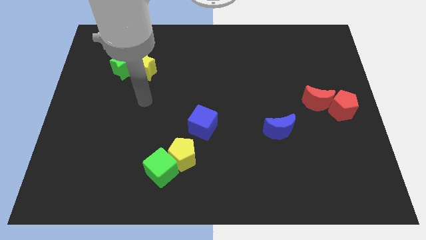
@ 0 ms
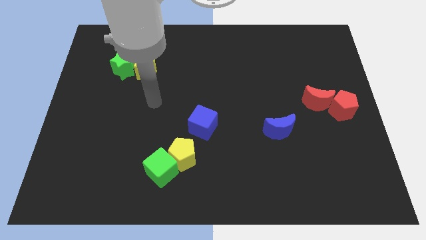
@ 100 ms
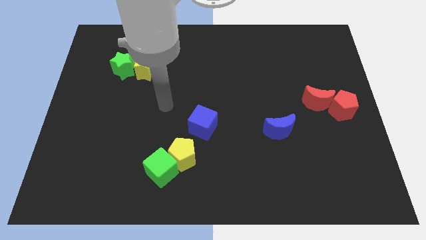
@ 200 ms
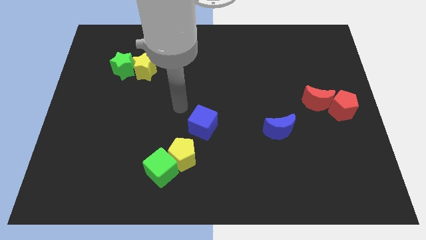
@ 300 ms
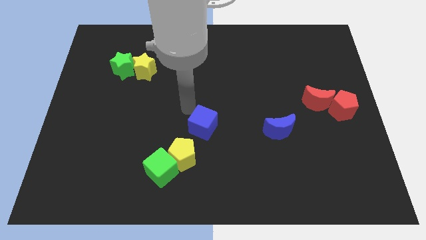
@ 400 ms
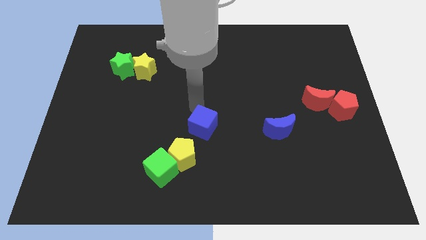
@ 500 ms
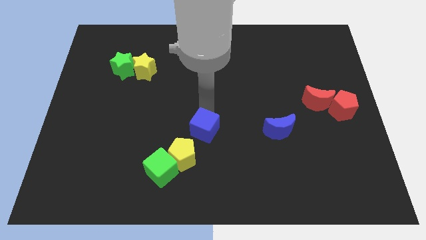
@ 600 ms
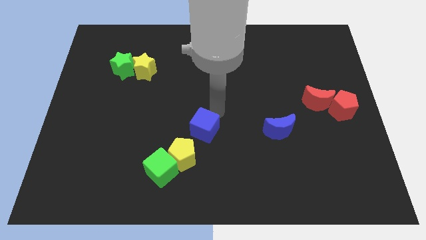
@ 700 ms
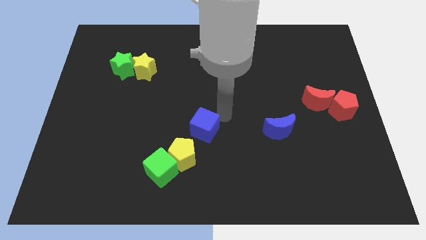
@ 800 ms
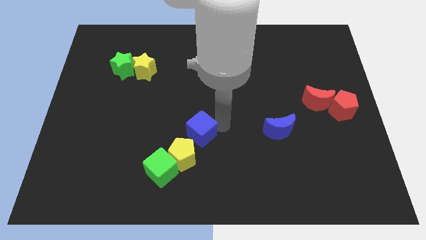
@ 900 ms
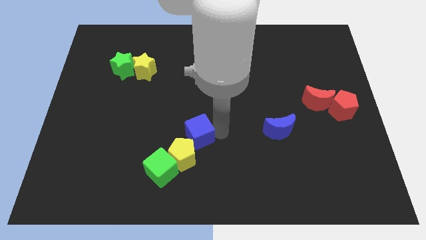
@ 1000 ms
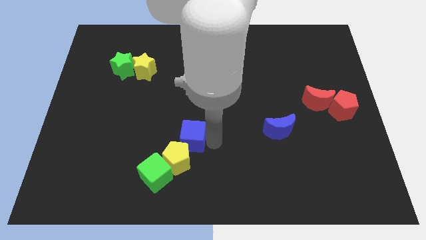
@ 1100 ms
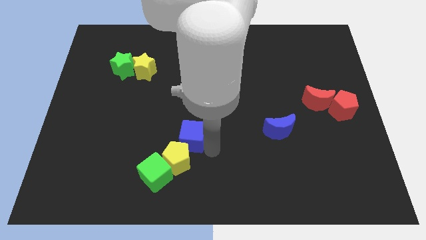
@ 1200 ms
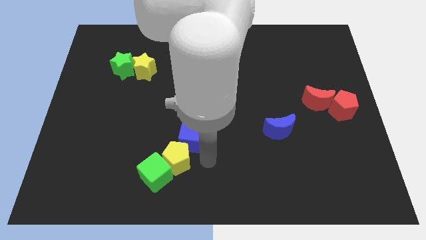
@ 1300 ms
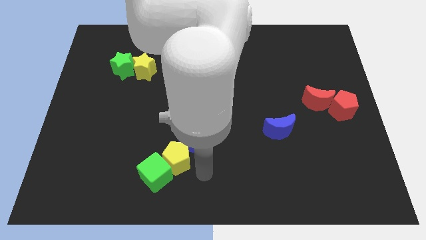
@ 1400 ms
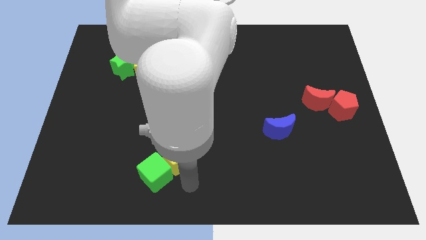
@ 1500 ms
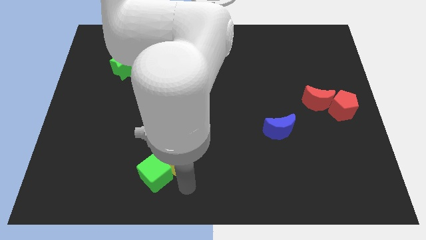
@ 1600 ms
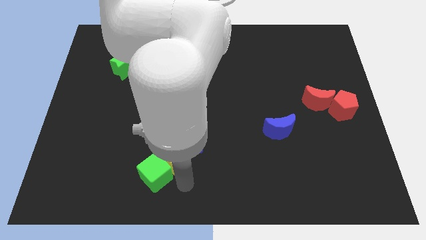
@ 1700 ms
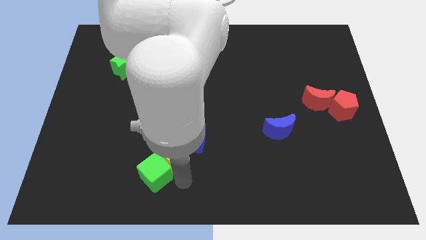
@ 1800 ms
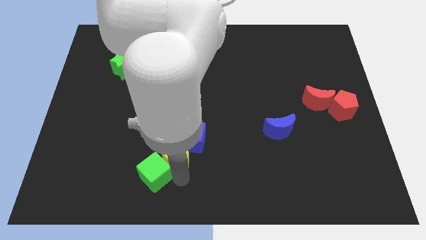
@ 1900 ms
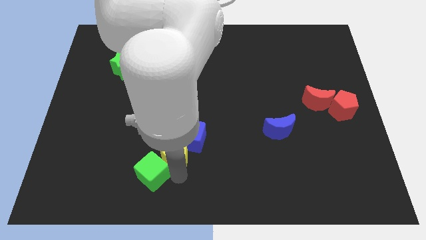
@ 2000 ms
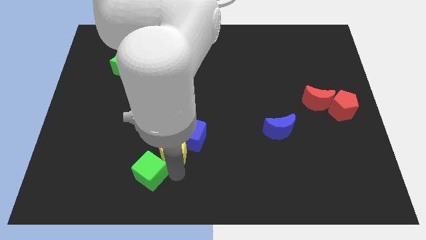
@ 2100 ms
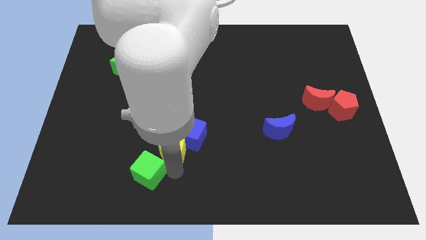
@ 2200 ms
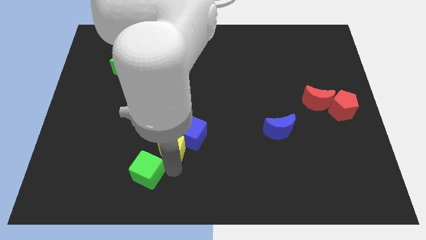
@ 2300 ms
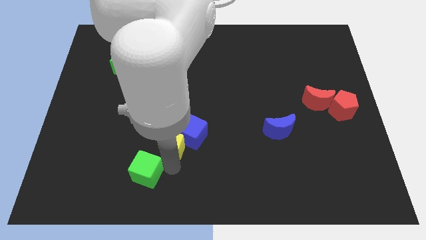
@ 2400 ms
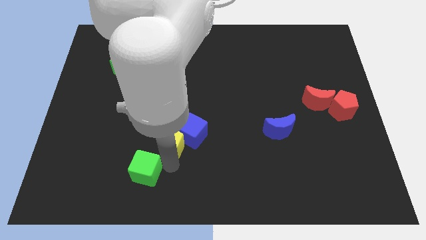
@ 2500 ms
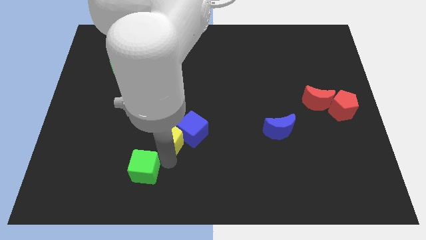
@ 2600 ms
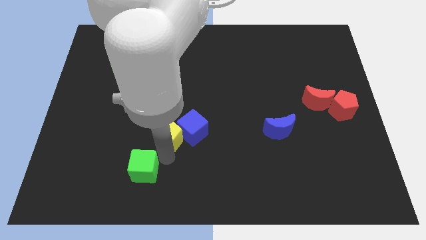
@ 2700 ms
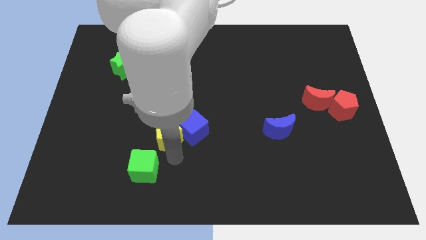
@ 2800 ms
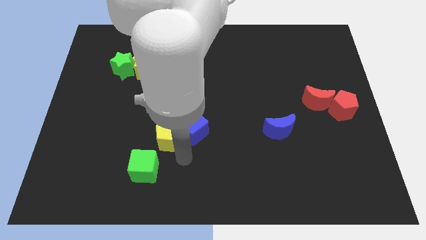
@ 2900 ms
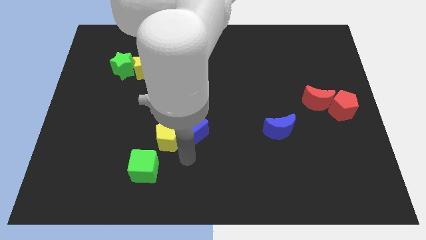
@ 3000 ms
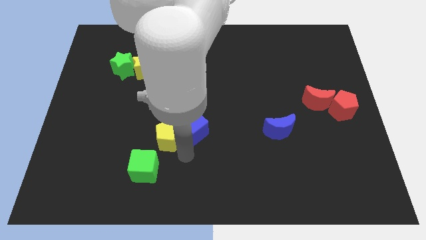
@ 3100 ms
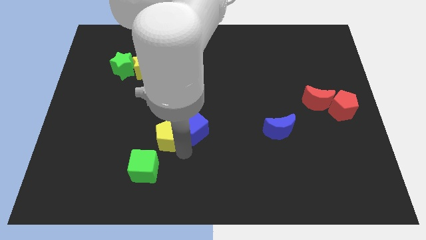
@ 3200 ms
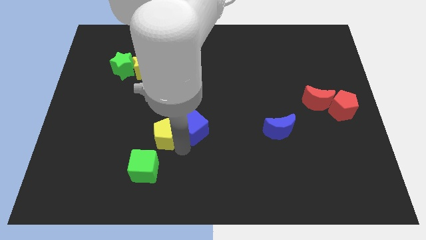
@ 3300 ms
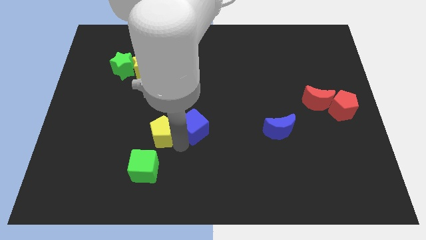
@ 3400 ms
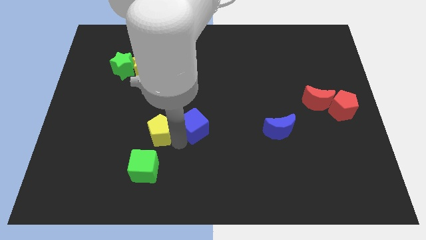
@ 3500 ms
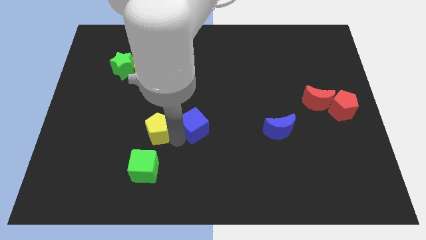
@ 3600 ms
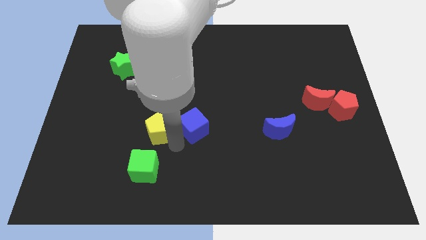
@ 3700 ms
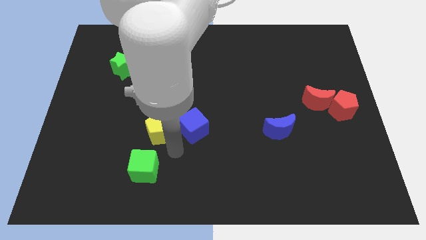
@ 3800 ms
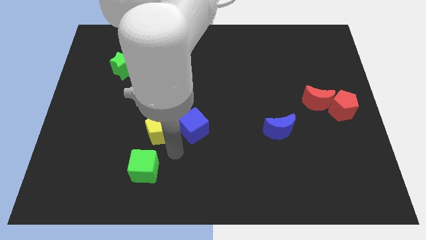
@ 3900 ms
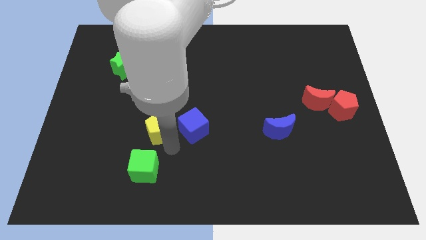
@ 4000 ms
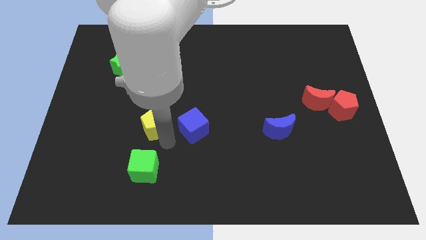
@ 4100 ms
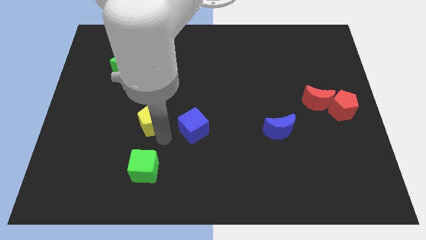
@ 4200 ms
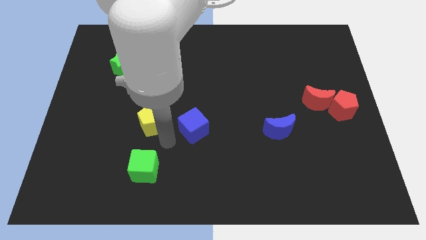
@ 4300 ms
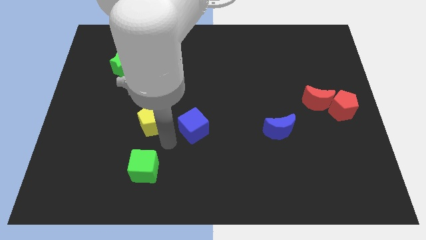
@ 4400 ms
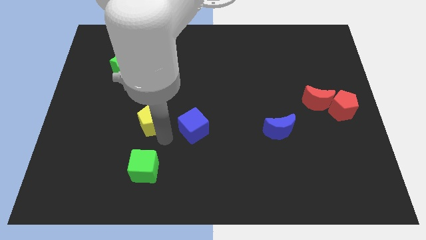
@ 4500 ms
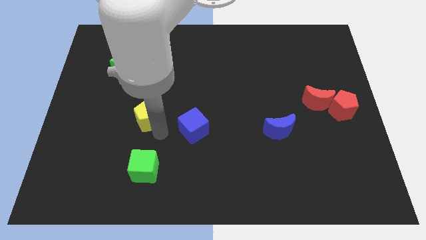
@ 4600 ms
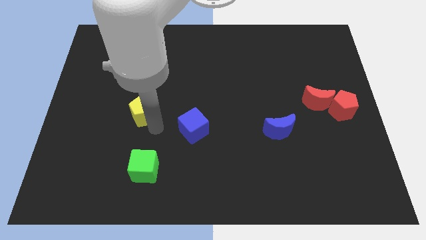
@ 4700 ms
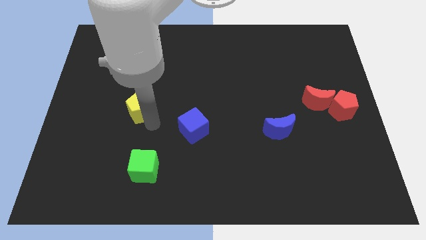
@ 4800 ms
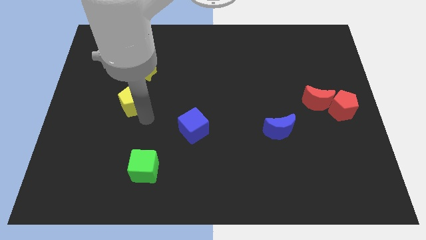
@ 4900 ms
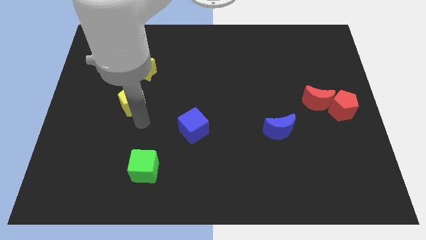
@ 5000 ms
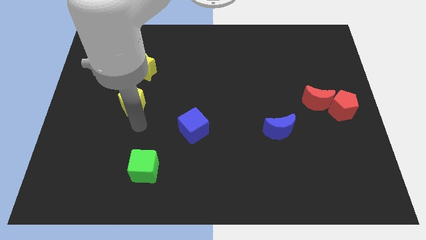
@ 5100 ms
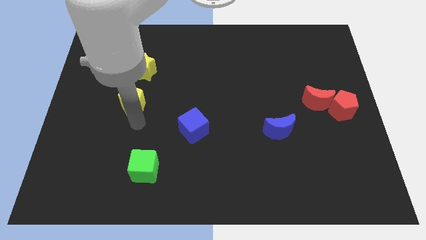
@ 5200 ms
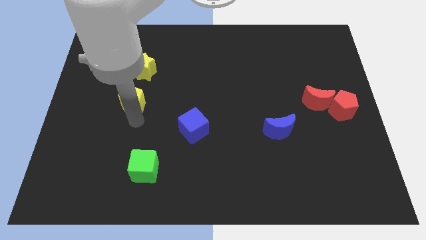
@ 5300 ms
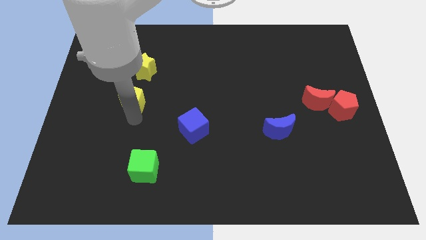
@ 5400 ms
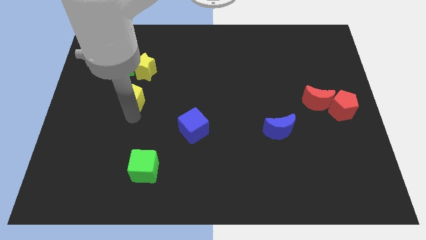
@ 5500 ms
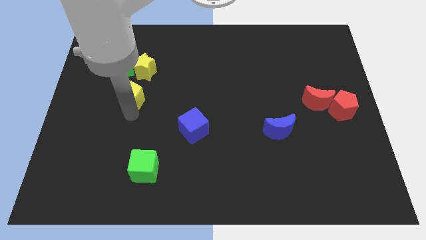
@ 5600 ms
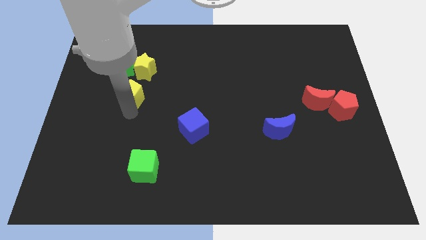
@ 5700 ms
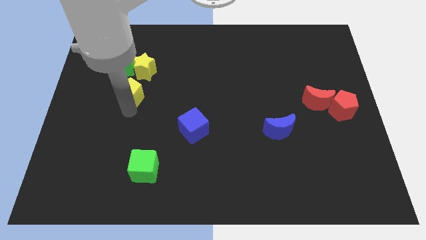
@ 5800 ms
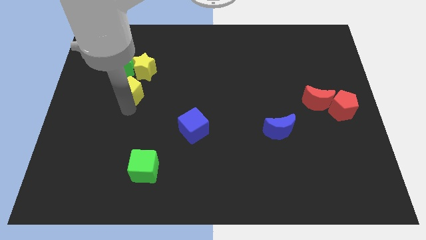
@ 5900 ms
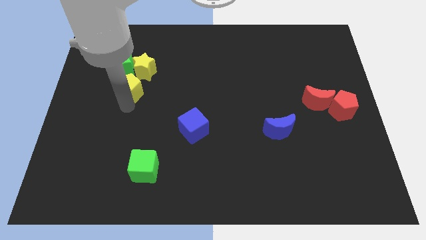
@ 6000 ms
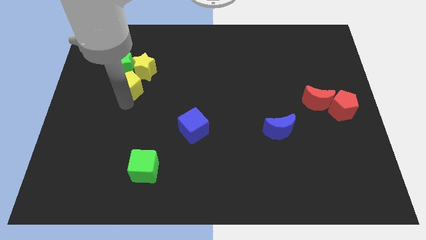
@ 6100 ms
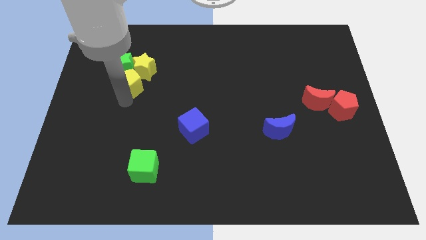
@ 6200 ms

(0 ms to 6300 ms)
move the yellow pentagon towards the green star
